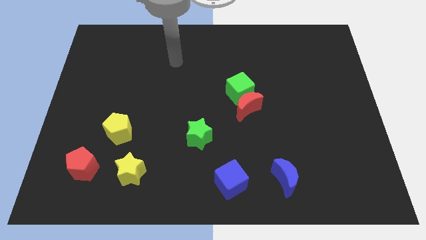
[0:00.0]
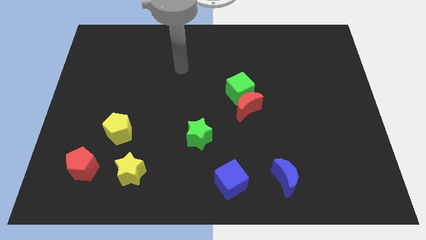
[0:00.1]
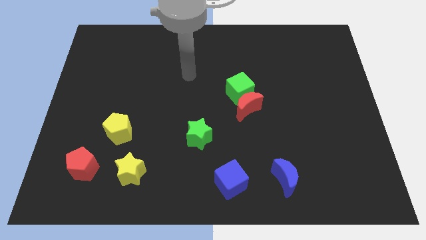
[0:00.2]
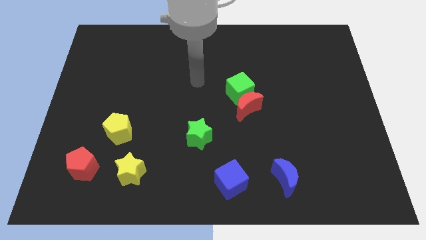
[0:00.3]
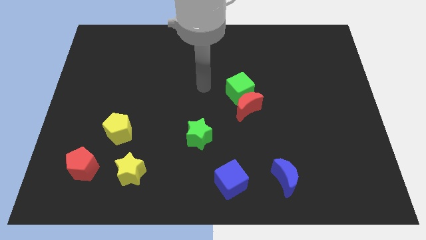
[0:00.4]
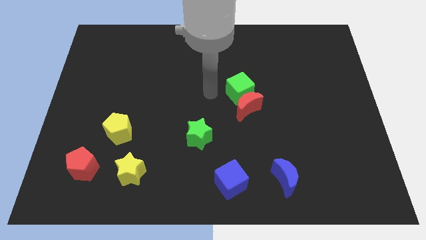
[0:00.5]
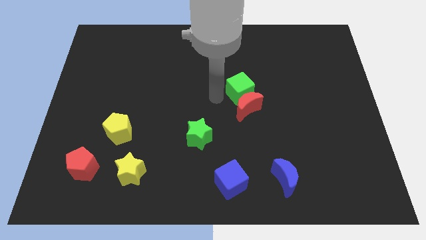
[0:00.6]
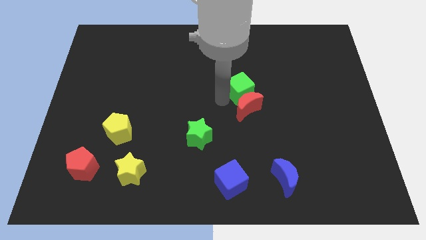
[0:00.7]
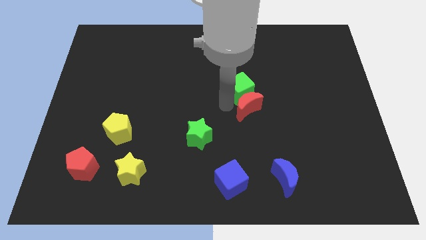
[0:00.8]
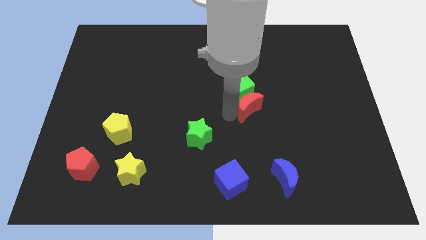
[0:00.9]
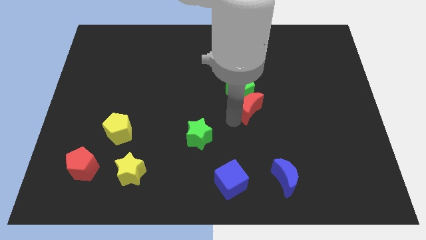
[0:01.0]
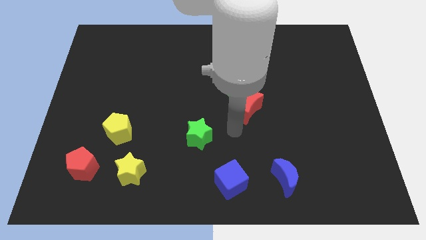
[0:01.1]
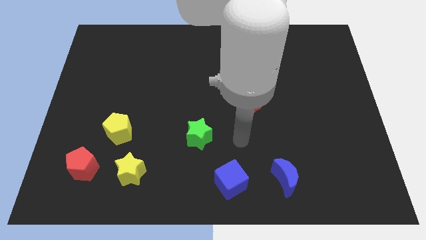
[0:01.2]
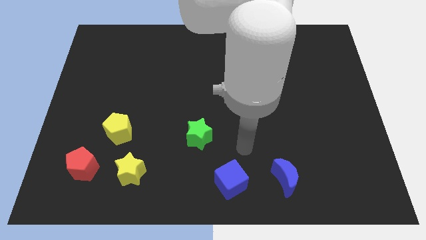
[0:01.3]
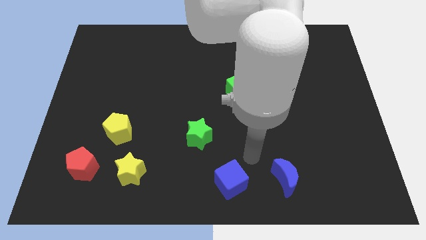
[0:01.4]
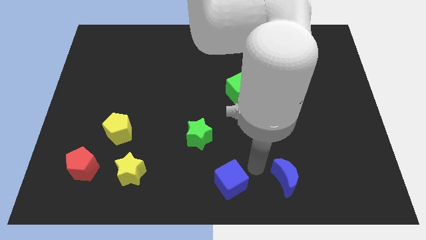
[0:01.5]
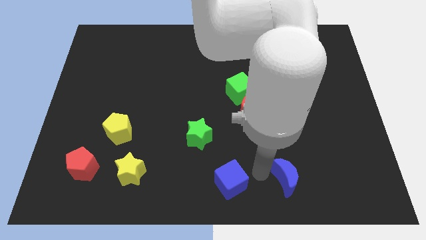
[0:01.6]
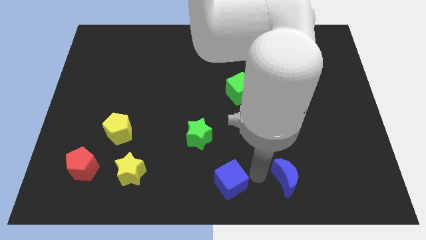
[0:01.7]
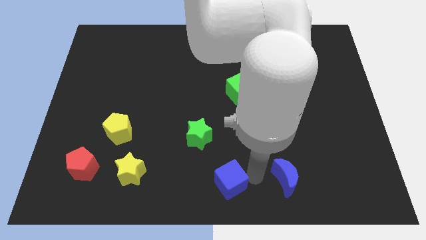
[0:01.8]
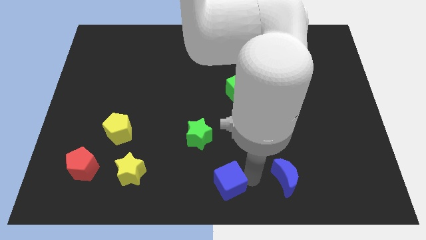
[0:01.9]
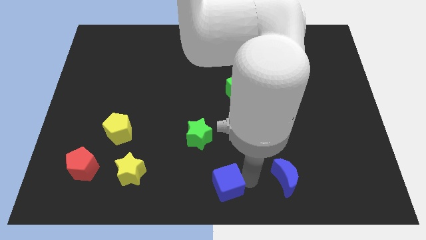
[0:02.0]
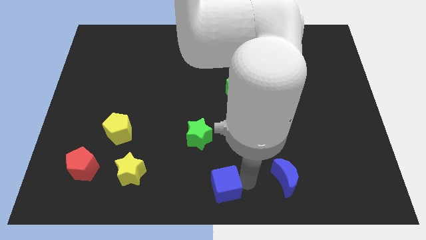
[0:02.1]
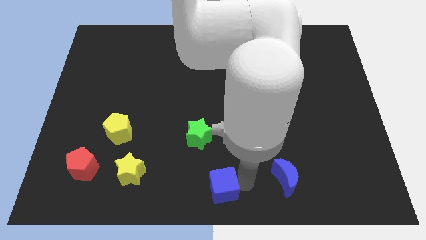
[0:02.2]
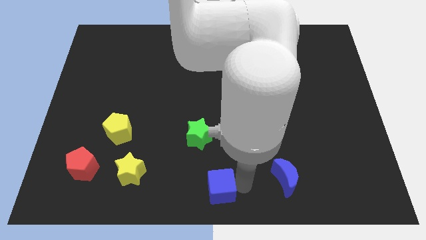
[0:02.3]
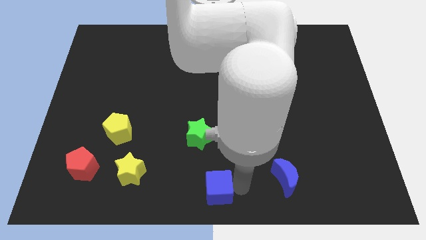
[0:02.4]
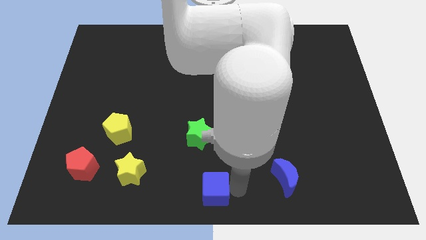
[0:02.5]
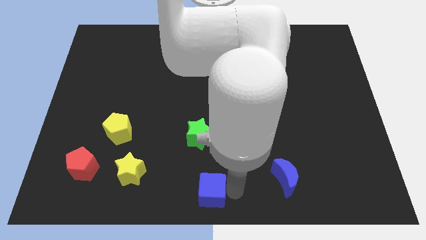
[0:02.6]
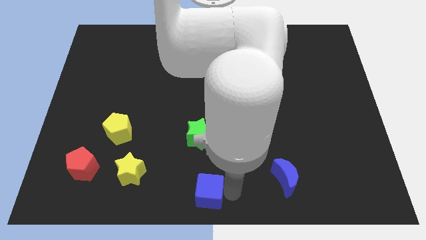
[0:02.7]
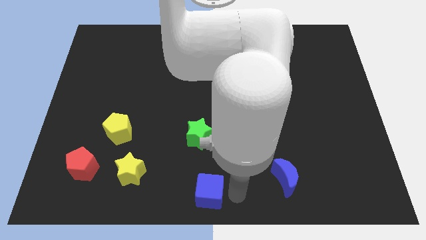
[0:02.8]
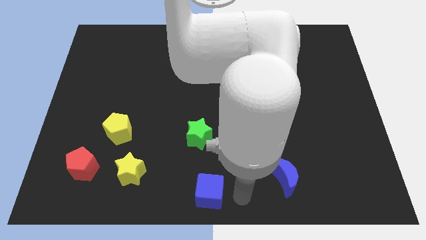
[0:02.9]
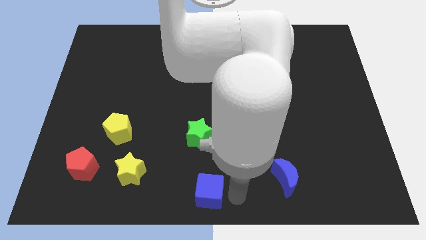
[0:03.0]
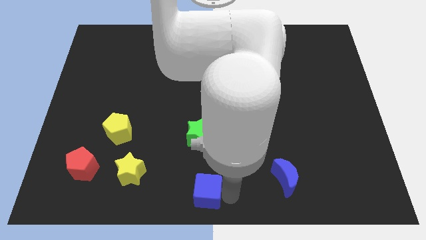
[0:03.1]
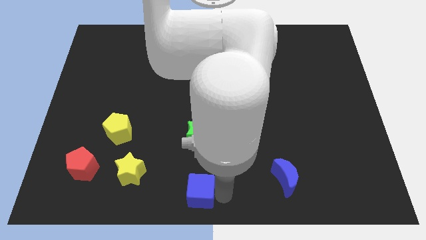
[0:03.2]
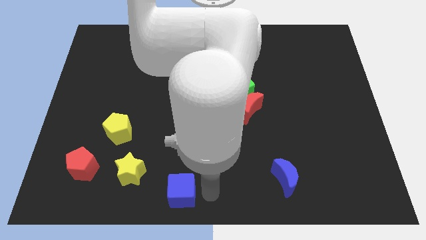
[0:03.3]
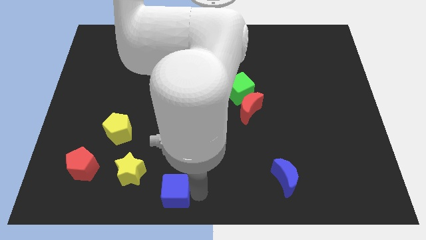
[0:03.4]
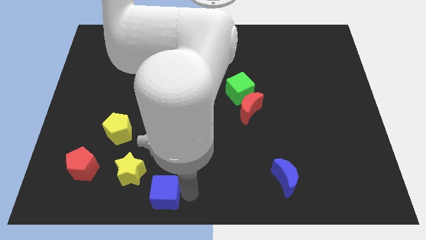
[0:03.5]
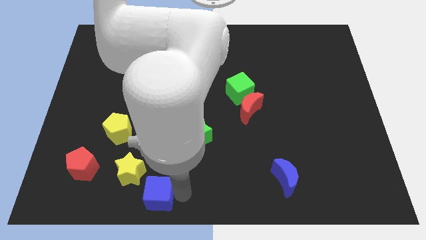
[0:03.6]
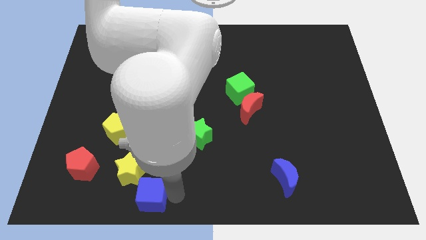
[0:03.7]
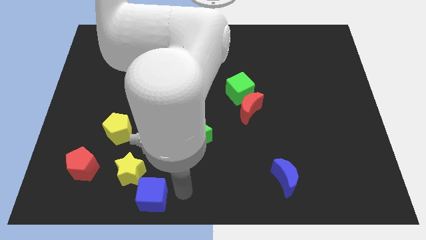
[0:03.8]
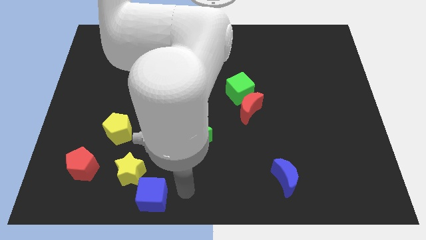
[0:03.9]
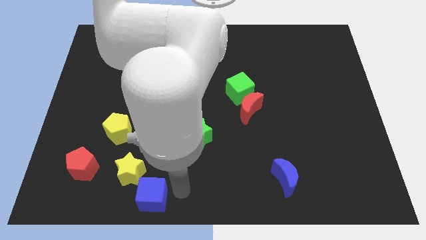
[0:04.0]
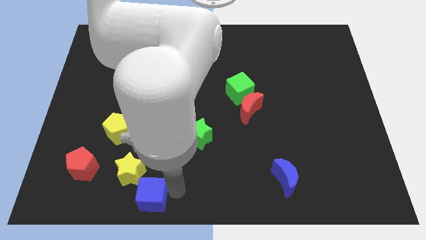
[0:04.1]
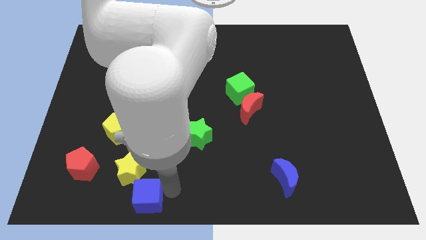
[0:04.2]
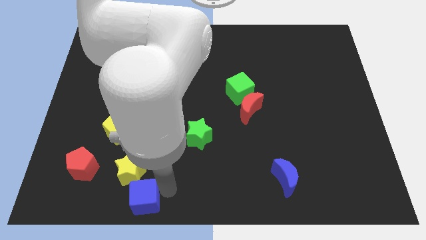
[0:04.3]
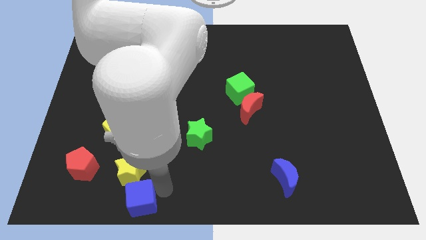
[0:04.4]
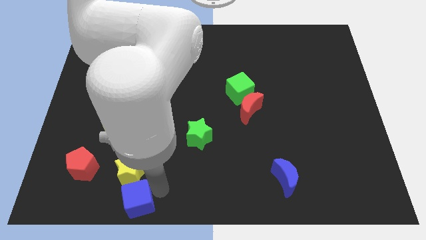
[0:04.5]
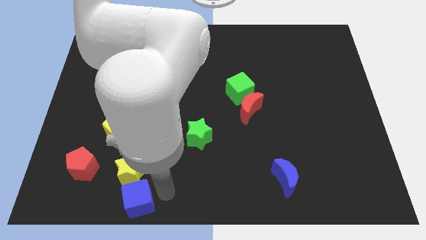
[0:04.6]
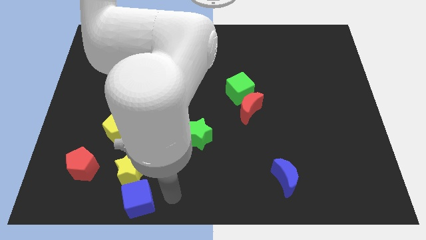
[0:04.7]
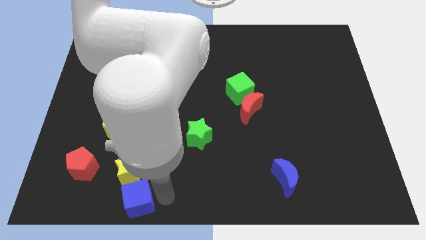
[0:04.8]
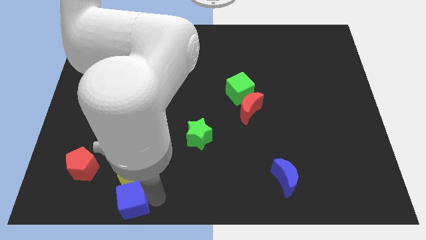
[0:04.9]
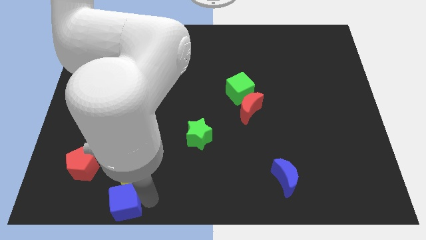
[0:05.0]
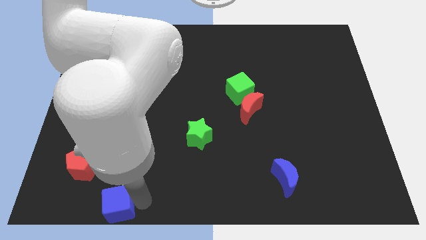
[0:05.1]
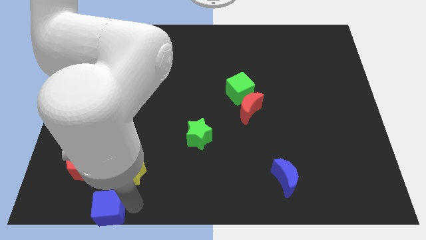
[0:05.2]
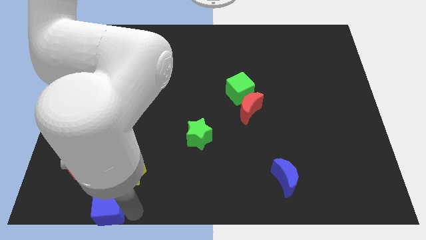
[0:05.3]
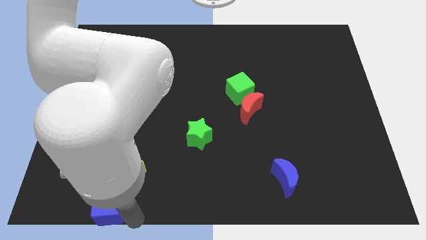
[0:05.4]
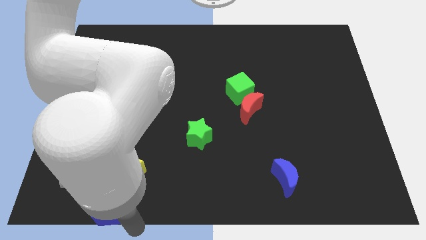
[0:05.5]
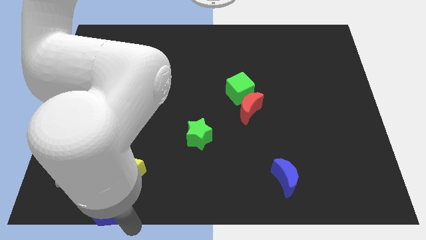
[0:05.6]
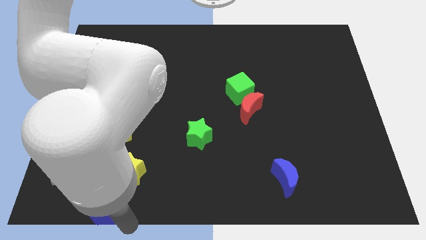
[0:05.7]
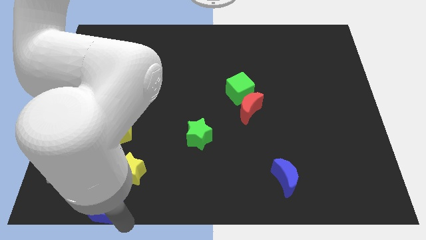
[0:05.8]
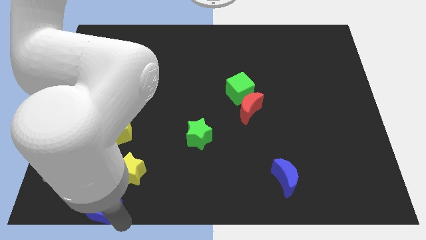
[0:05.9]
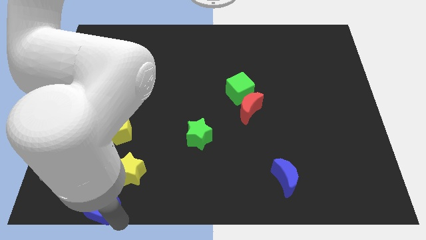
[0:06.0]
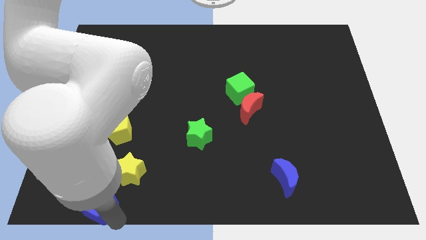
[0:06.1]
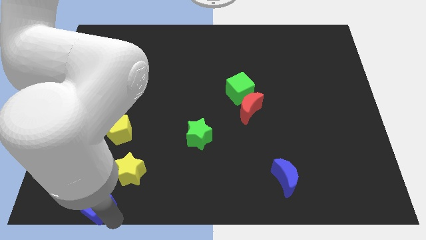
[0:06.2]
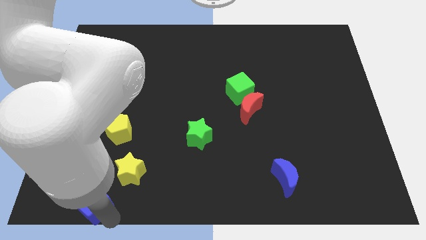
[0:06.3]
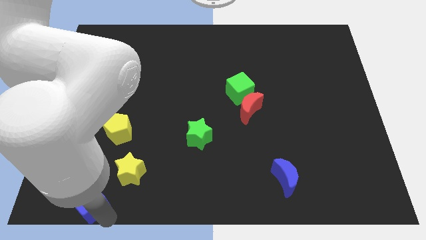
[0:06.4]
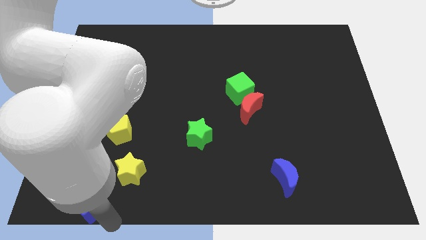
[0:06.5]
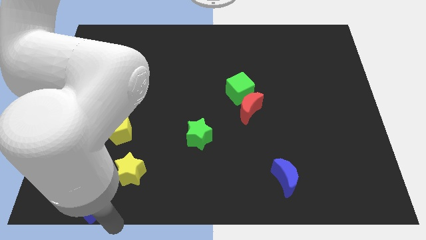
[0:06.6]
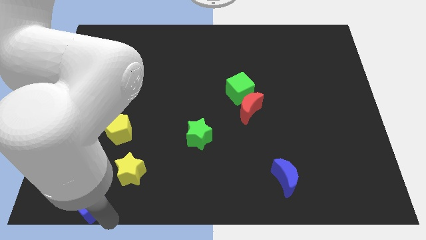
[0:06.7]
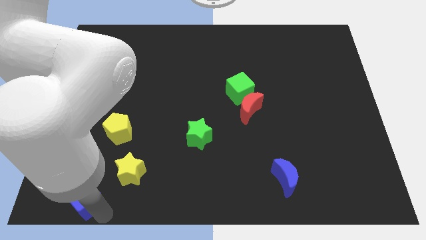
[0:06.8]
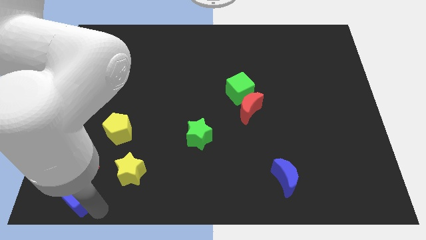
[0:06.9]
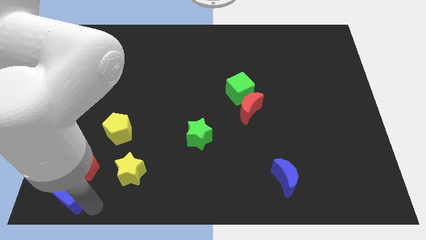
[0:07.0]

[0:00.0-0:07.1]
slide the blue cube to the left side of the yellow star

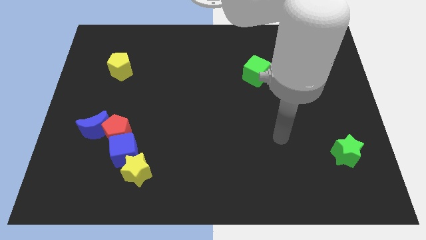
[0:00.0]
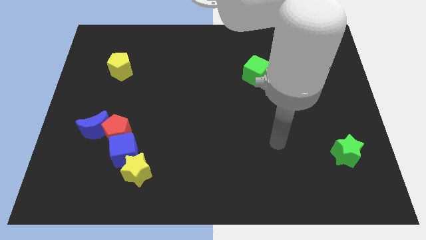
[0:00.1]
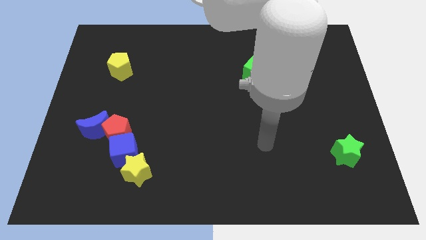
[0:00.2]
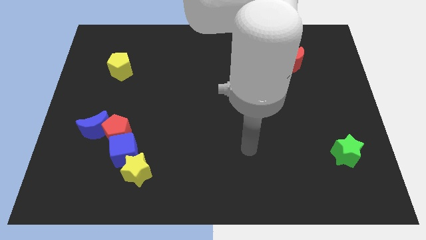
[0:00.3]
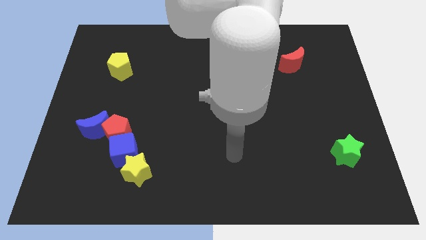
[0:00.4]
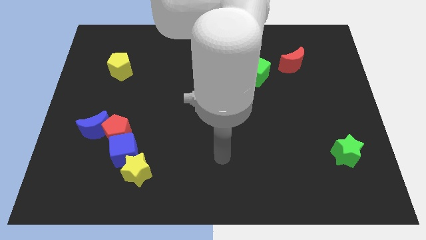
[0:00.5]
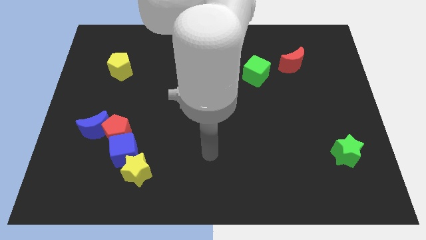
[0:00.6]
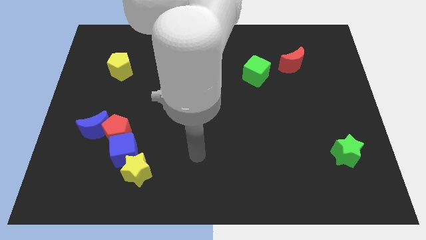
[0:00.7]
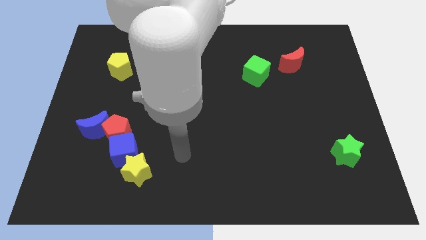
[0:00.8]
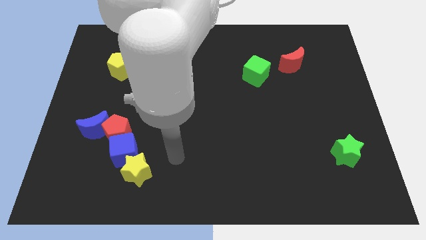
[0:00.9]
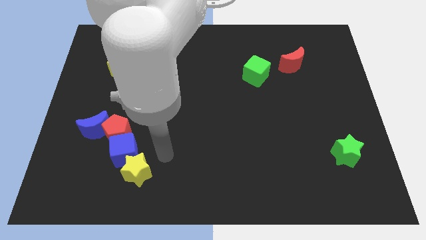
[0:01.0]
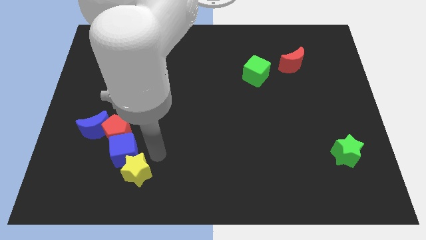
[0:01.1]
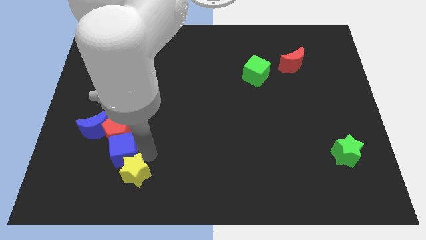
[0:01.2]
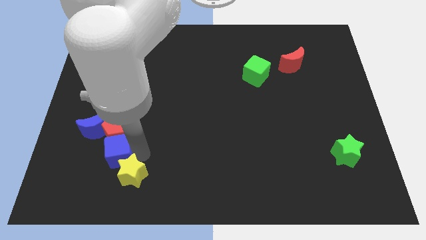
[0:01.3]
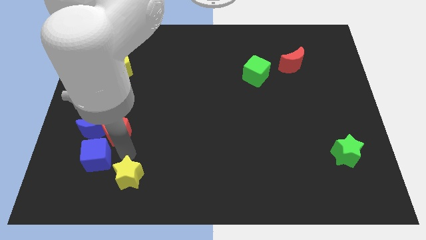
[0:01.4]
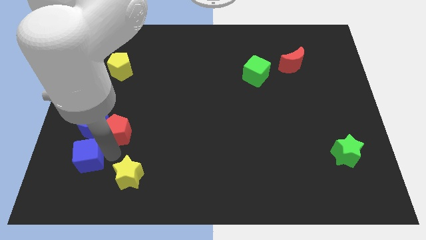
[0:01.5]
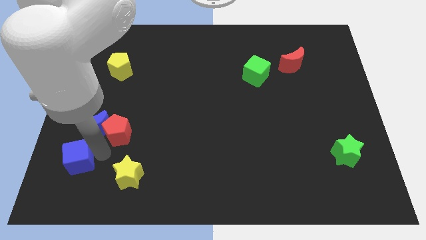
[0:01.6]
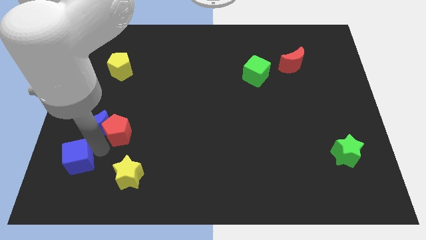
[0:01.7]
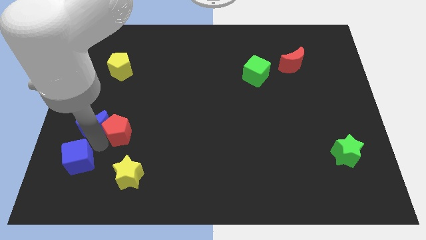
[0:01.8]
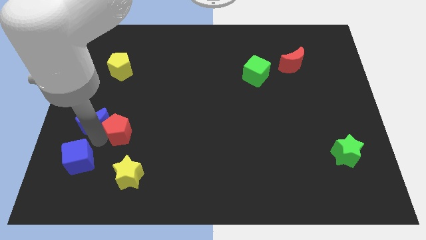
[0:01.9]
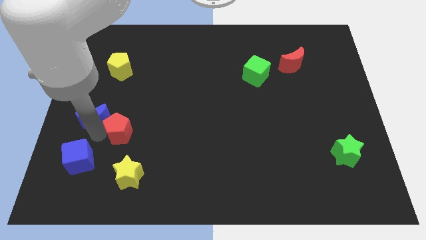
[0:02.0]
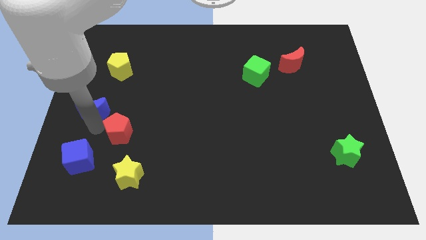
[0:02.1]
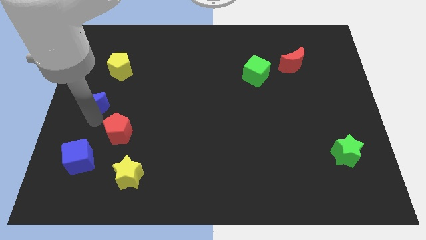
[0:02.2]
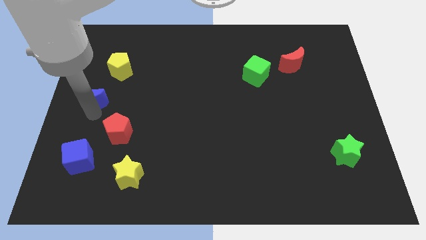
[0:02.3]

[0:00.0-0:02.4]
push the blue moon to the bottom left side of the yellow pentagon
